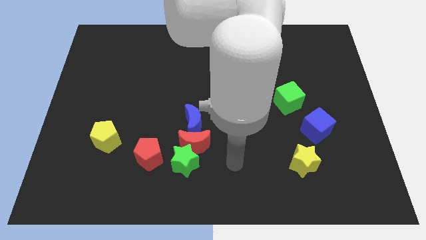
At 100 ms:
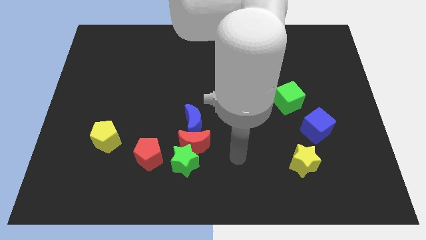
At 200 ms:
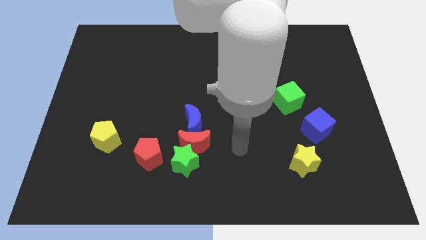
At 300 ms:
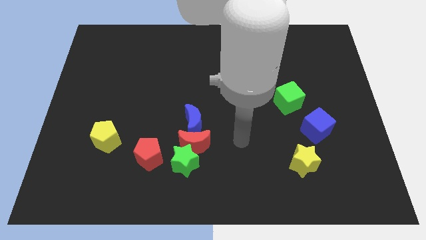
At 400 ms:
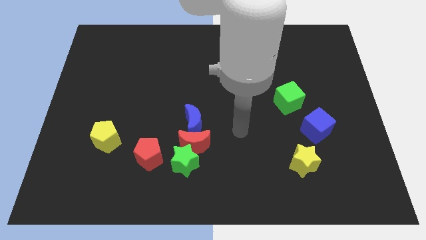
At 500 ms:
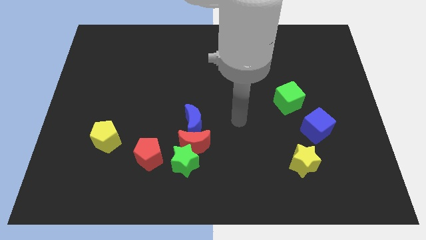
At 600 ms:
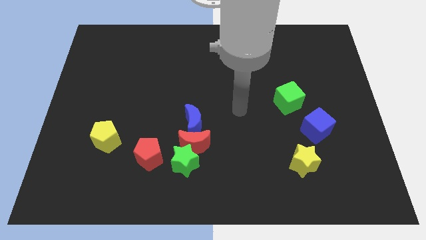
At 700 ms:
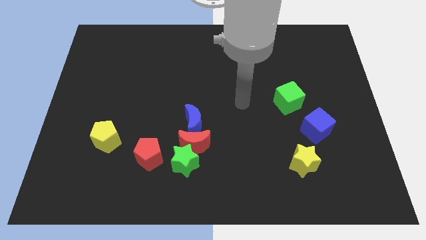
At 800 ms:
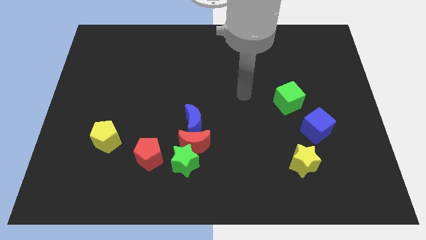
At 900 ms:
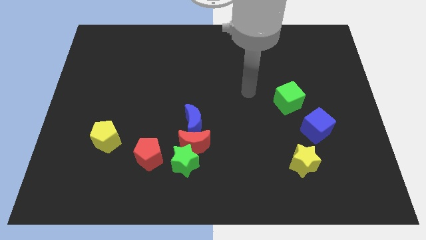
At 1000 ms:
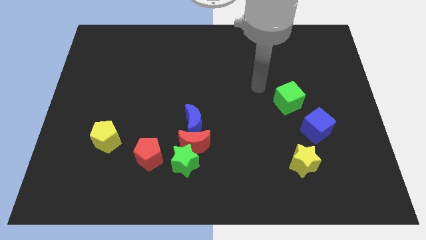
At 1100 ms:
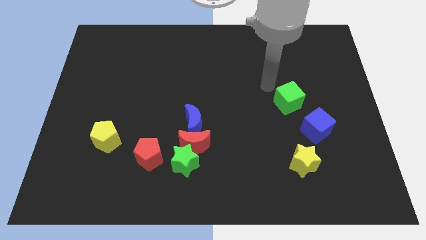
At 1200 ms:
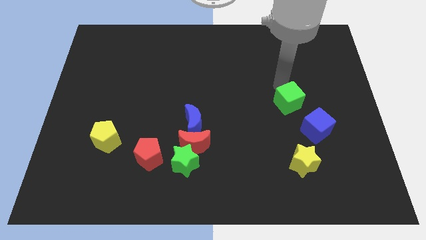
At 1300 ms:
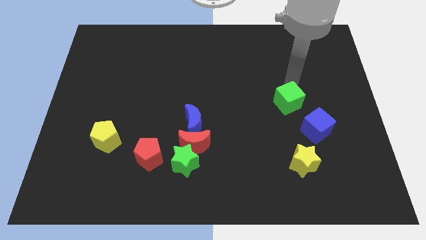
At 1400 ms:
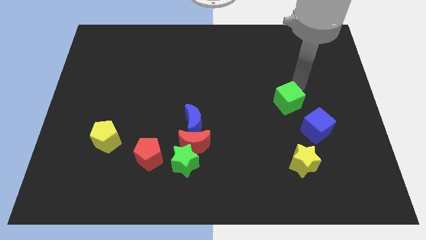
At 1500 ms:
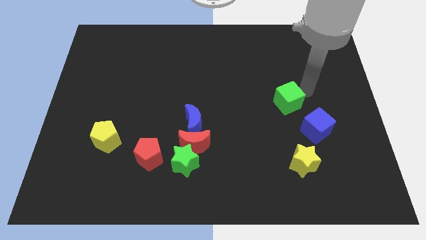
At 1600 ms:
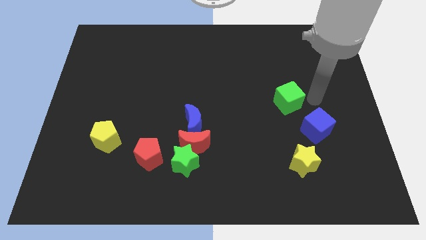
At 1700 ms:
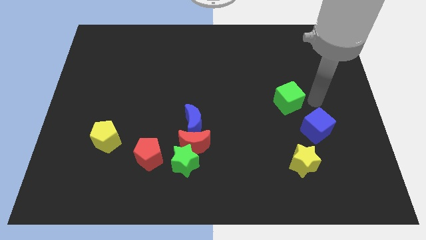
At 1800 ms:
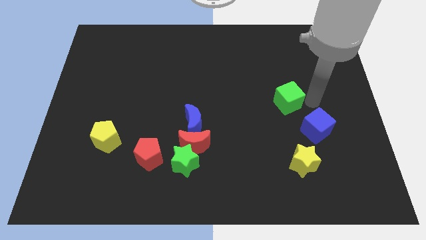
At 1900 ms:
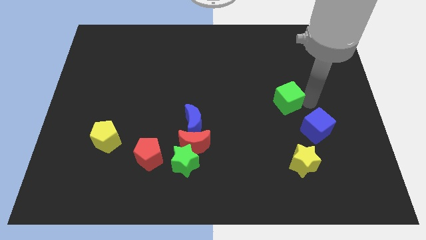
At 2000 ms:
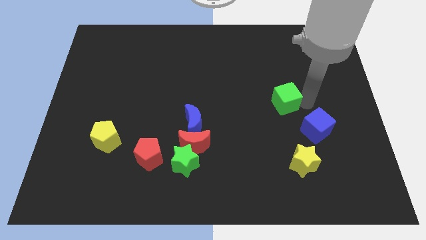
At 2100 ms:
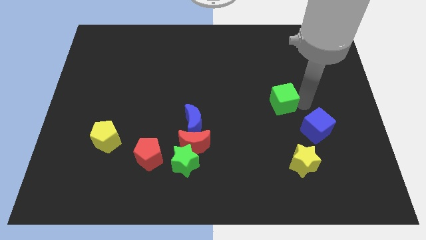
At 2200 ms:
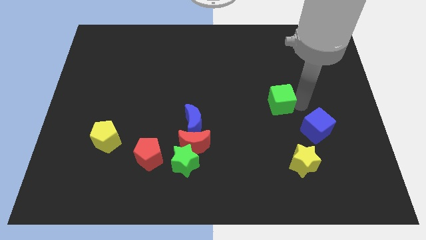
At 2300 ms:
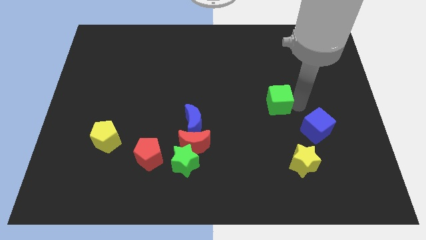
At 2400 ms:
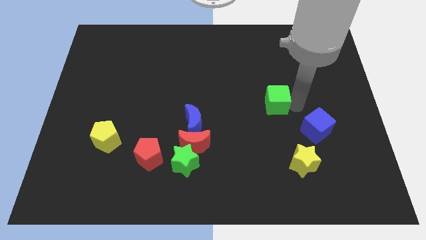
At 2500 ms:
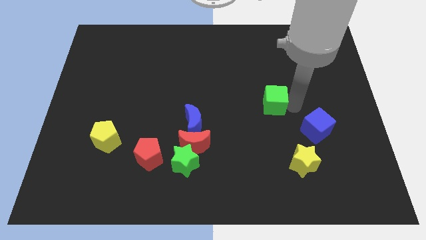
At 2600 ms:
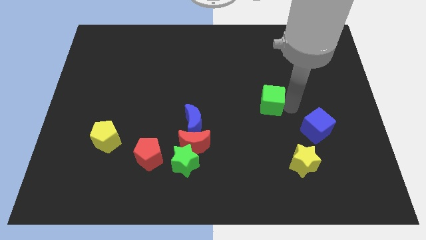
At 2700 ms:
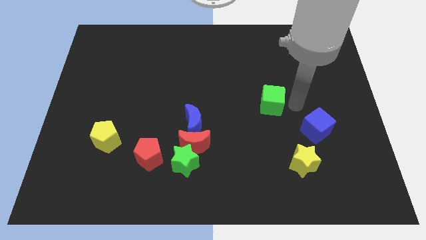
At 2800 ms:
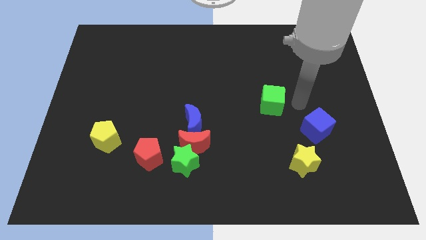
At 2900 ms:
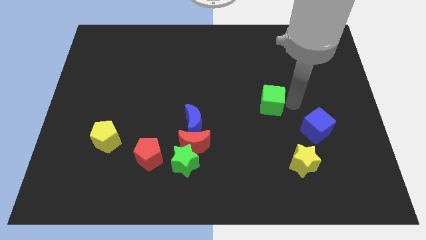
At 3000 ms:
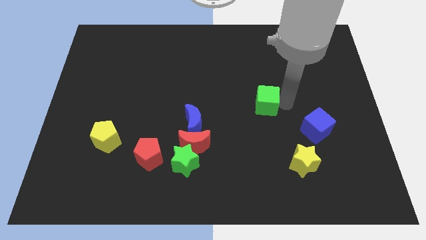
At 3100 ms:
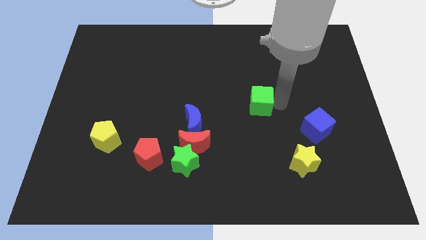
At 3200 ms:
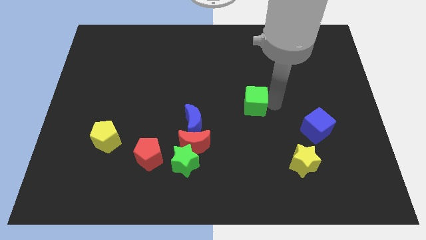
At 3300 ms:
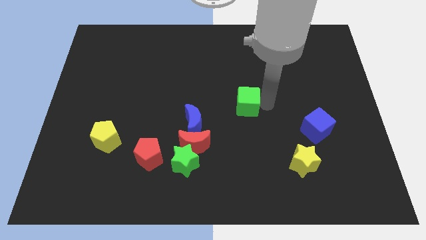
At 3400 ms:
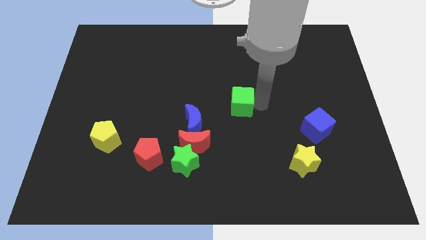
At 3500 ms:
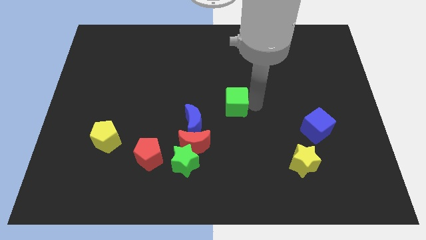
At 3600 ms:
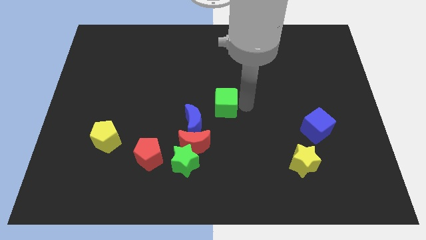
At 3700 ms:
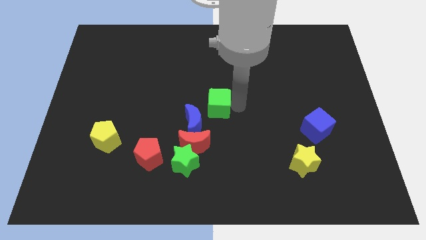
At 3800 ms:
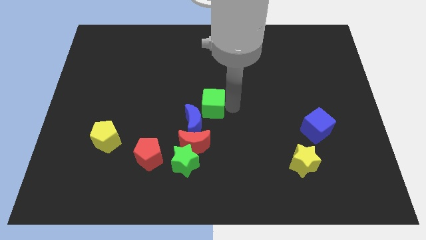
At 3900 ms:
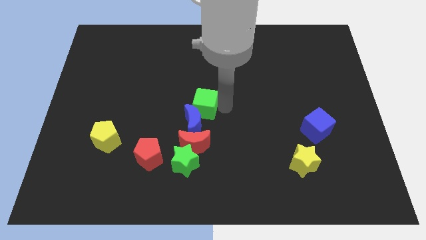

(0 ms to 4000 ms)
push the green cube left

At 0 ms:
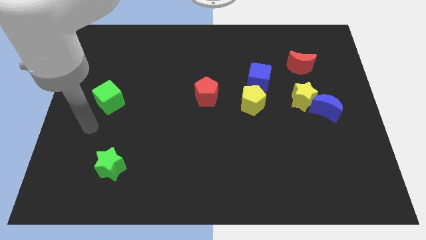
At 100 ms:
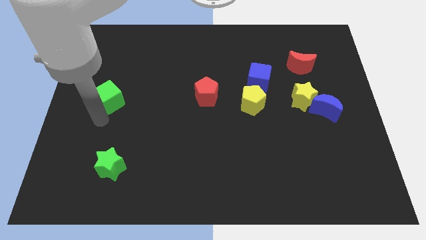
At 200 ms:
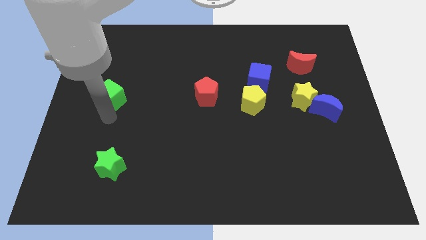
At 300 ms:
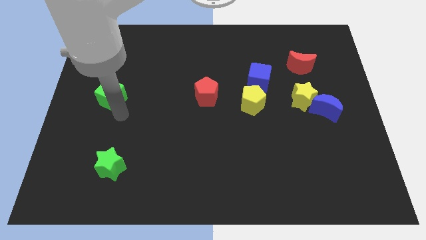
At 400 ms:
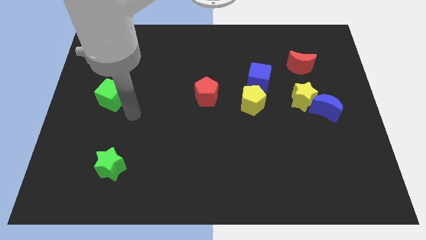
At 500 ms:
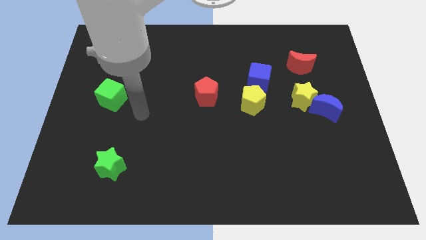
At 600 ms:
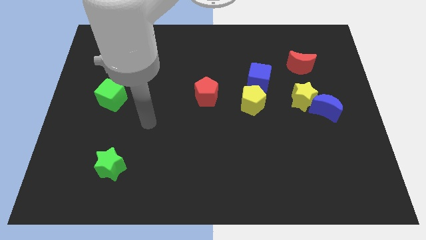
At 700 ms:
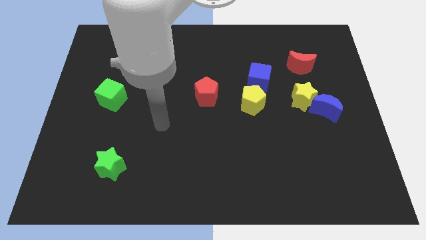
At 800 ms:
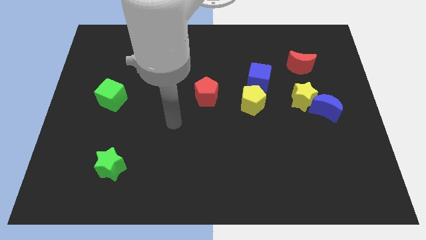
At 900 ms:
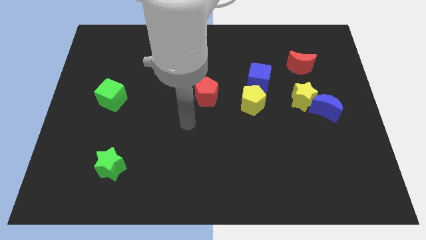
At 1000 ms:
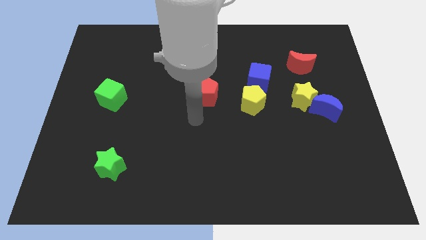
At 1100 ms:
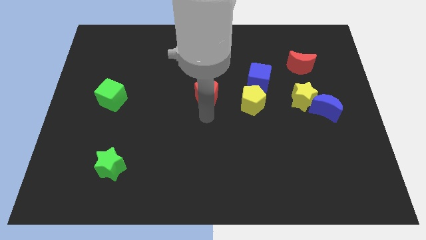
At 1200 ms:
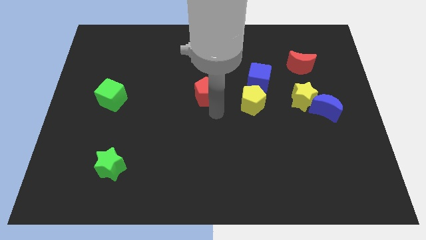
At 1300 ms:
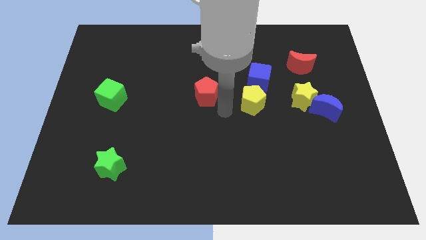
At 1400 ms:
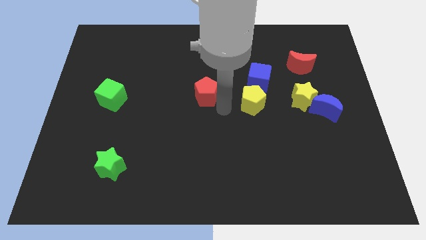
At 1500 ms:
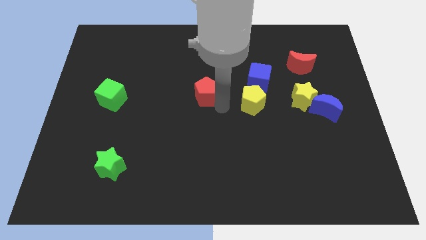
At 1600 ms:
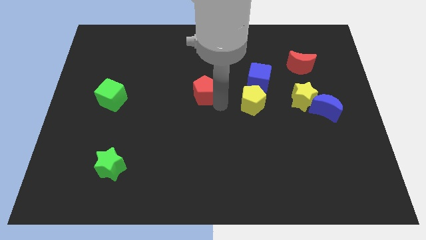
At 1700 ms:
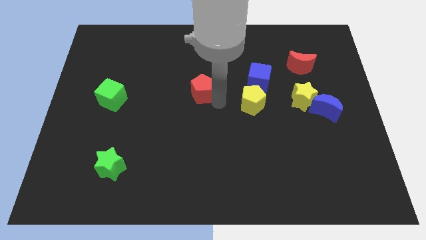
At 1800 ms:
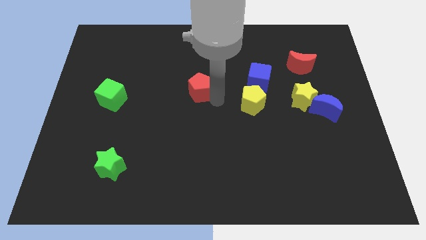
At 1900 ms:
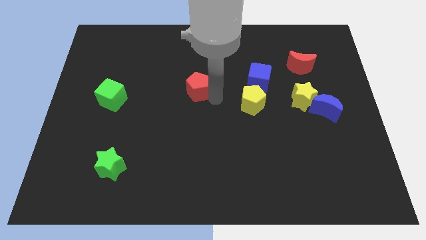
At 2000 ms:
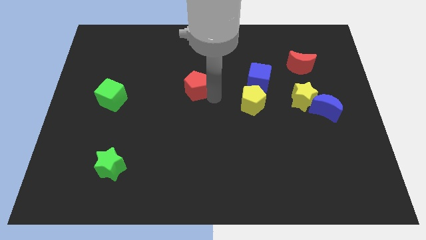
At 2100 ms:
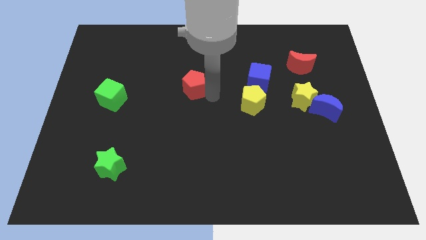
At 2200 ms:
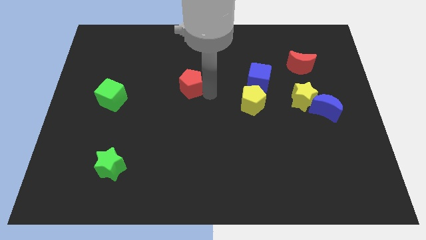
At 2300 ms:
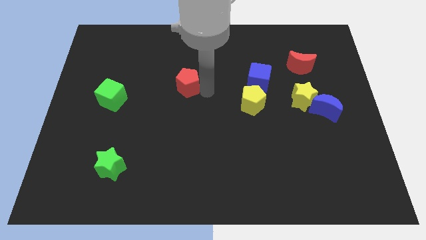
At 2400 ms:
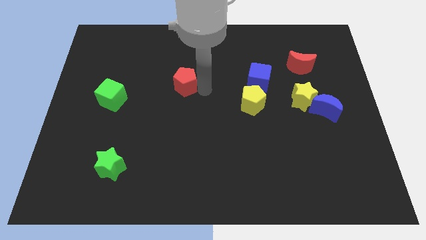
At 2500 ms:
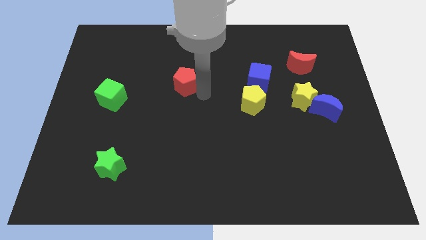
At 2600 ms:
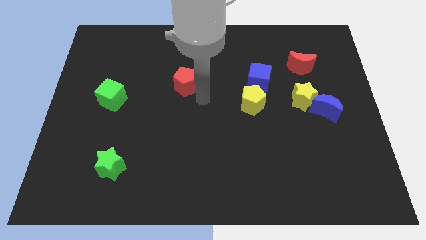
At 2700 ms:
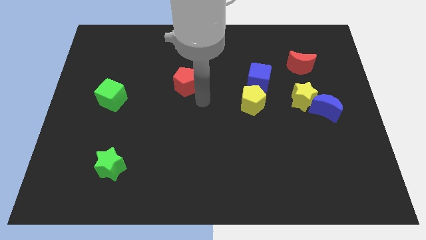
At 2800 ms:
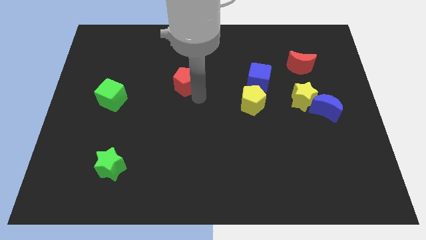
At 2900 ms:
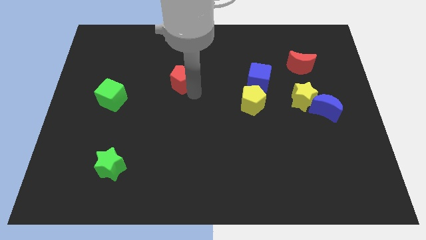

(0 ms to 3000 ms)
slightly move the red pentagon upwards and then to the left

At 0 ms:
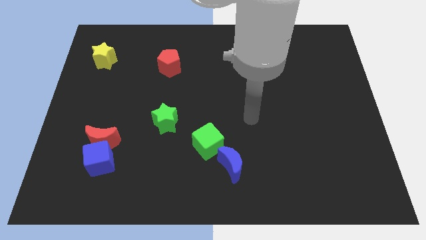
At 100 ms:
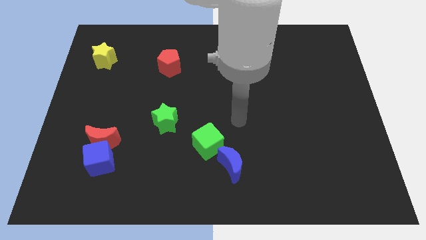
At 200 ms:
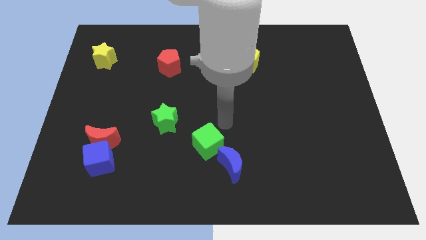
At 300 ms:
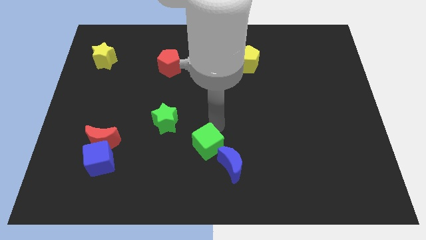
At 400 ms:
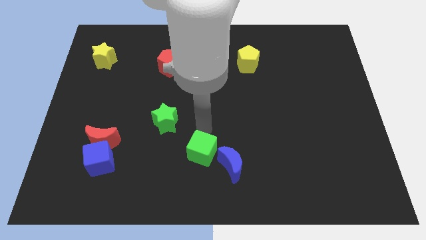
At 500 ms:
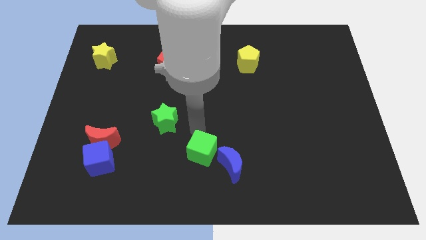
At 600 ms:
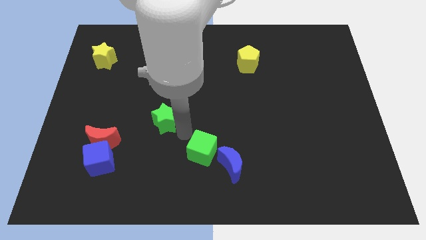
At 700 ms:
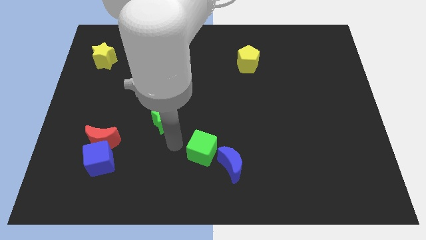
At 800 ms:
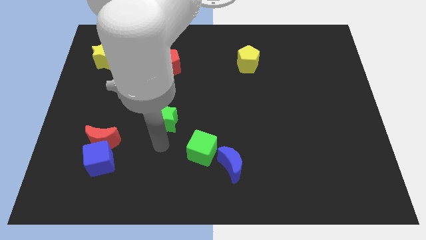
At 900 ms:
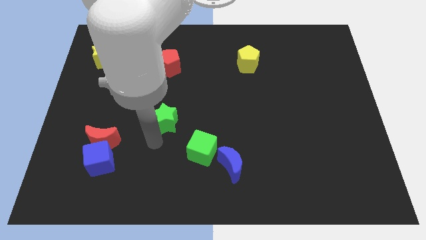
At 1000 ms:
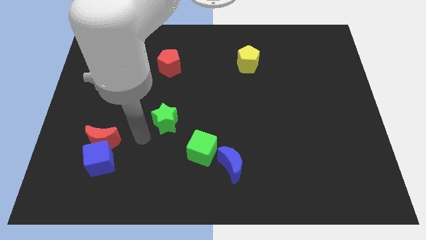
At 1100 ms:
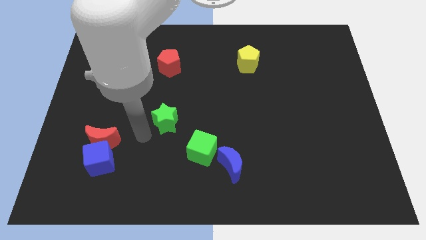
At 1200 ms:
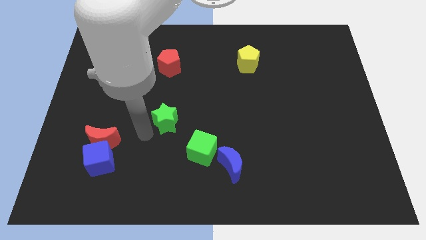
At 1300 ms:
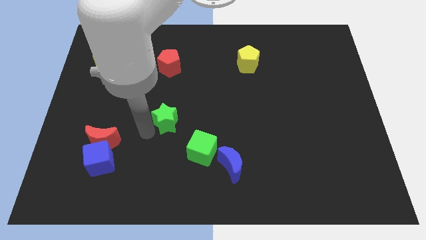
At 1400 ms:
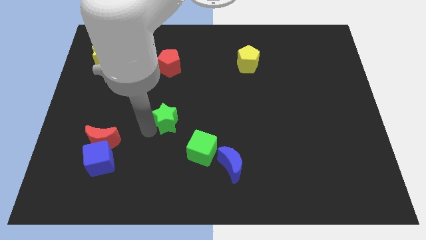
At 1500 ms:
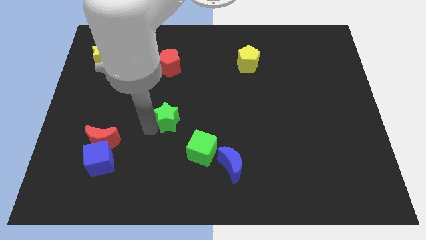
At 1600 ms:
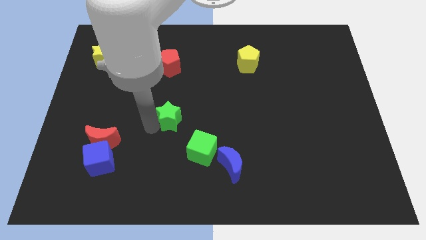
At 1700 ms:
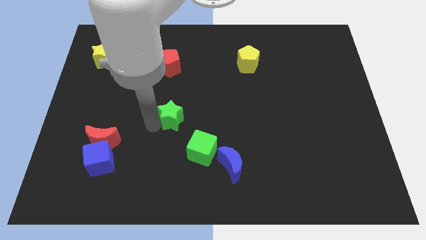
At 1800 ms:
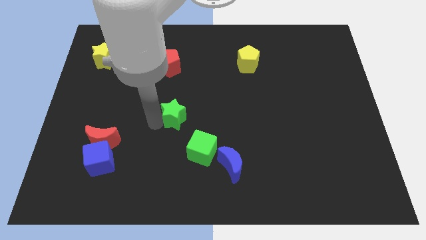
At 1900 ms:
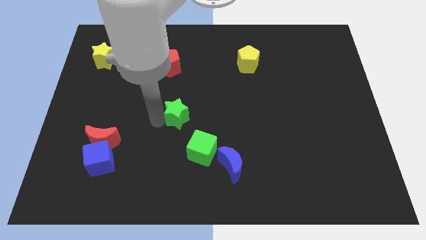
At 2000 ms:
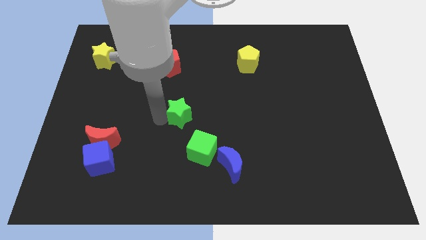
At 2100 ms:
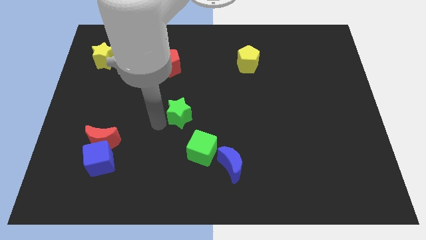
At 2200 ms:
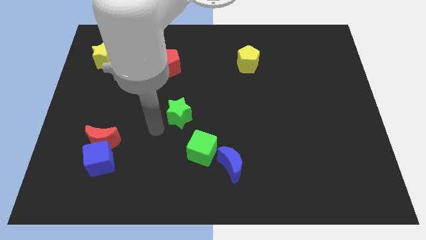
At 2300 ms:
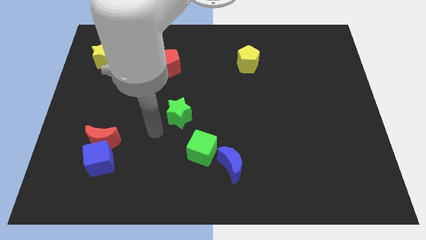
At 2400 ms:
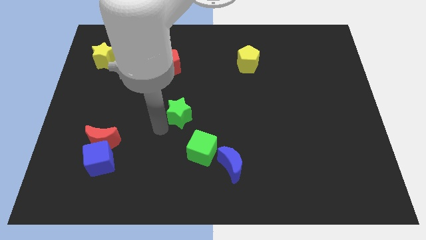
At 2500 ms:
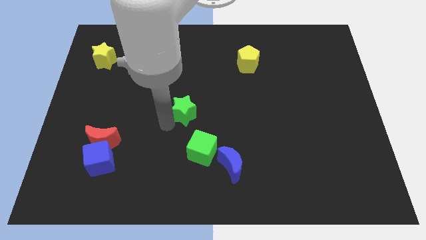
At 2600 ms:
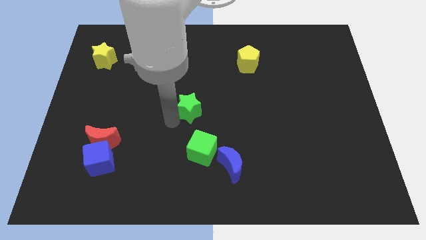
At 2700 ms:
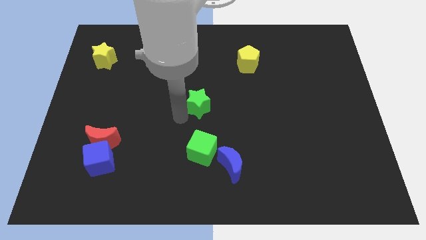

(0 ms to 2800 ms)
push the green star up and right diagonally slightly
